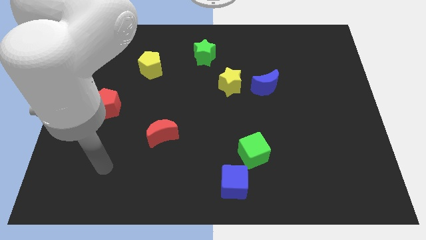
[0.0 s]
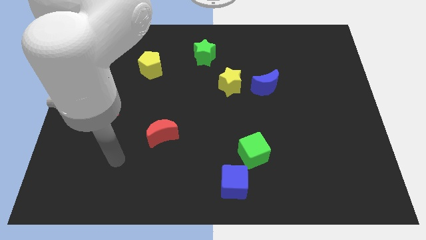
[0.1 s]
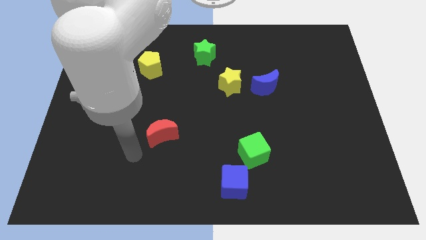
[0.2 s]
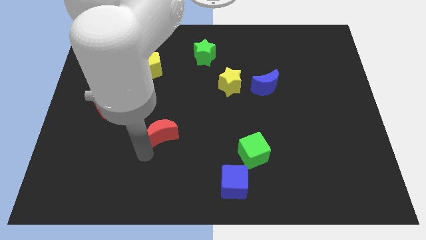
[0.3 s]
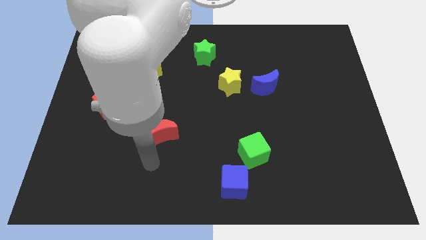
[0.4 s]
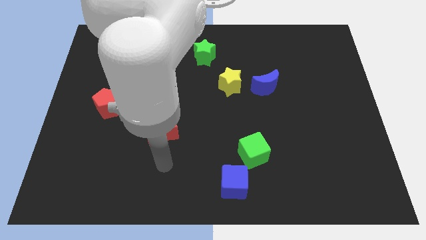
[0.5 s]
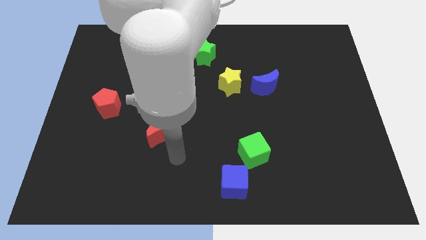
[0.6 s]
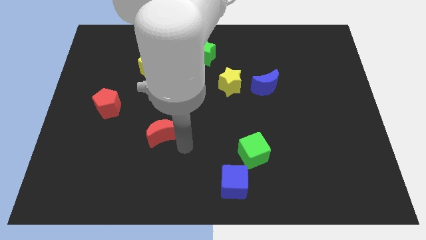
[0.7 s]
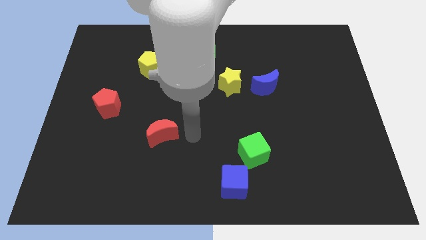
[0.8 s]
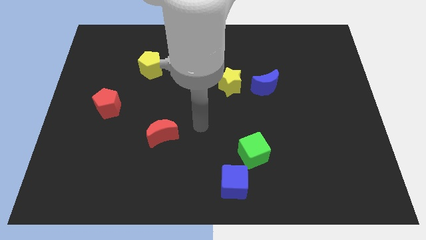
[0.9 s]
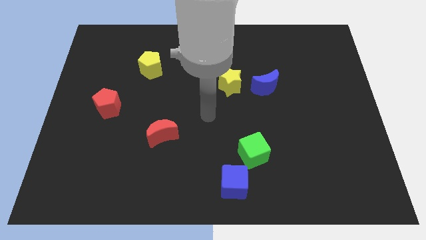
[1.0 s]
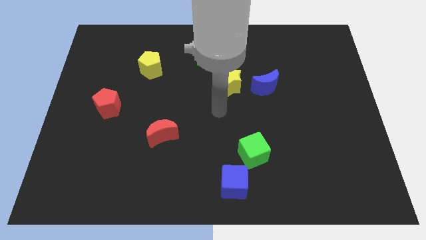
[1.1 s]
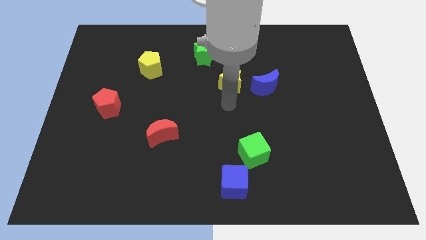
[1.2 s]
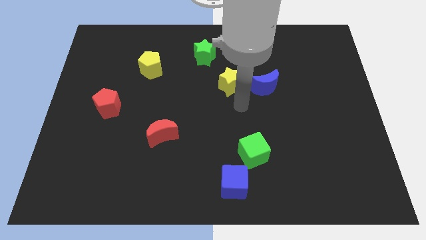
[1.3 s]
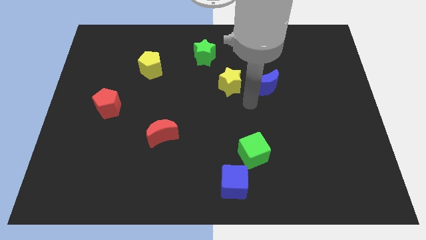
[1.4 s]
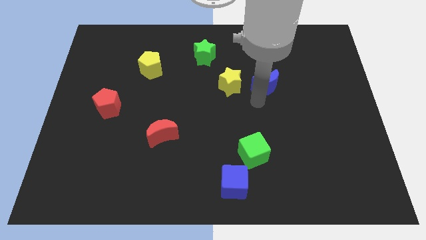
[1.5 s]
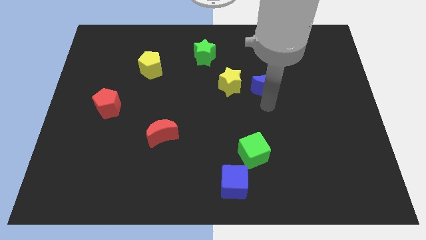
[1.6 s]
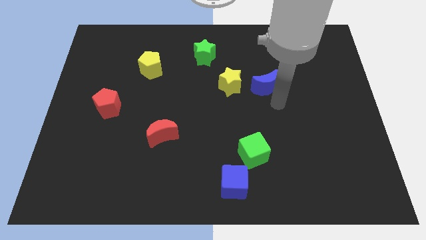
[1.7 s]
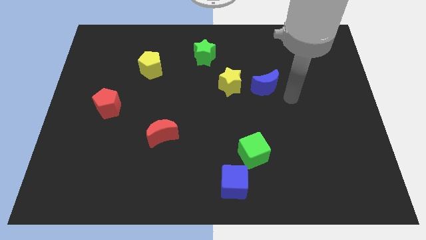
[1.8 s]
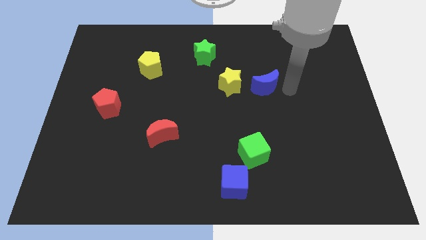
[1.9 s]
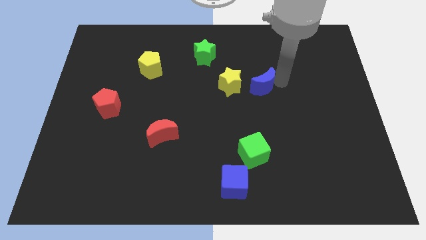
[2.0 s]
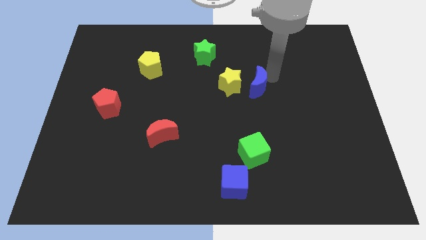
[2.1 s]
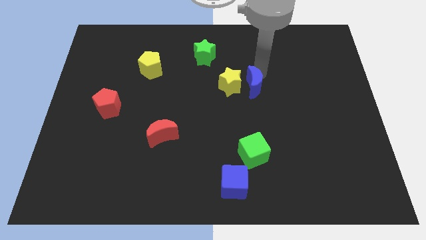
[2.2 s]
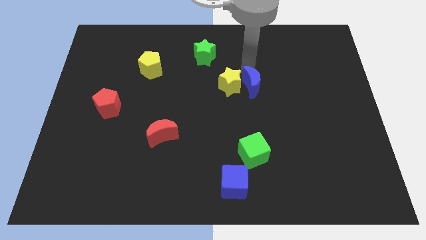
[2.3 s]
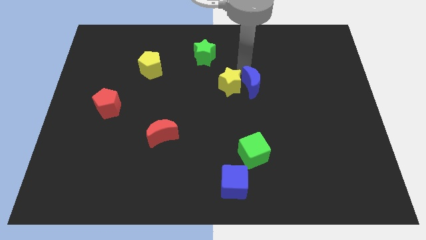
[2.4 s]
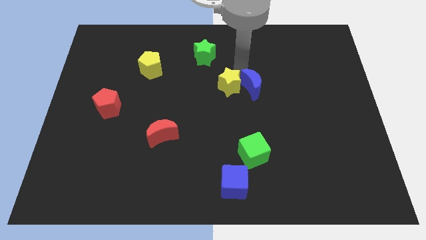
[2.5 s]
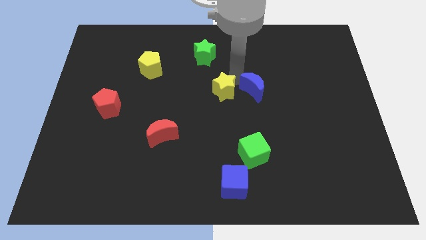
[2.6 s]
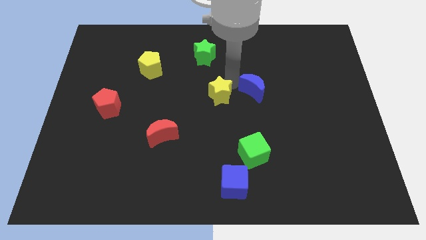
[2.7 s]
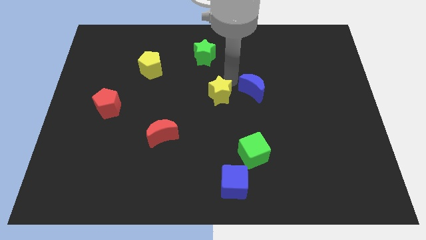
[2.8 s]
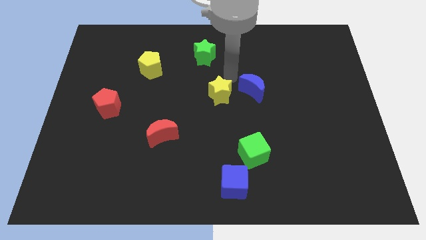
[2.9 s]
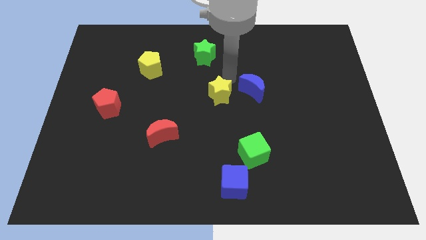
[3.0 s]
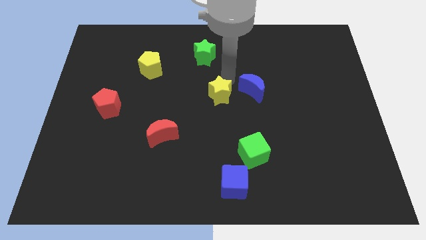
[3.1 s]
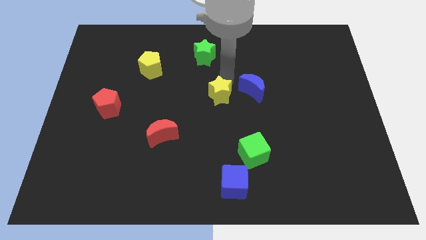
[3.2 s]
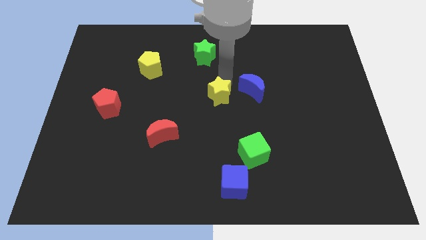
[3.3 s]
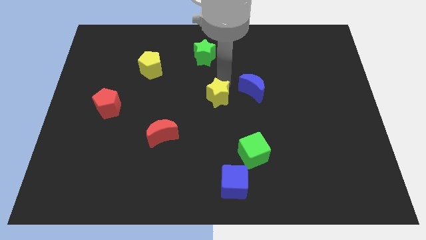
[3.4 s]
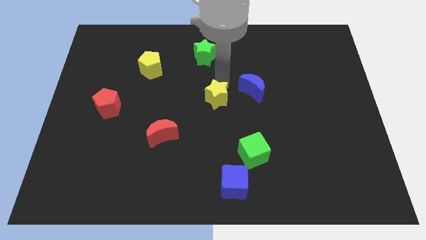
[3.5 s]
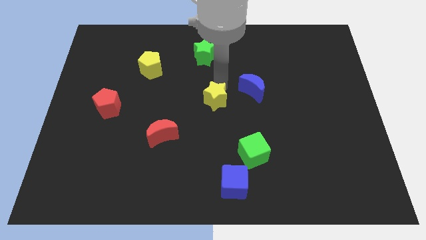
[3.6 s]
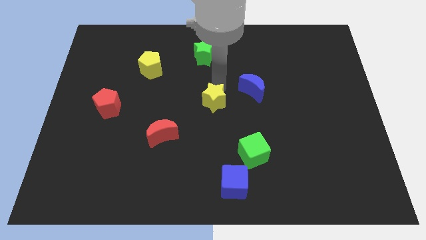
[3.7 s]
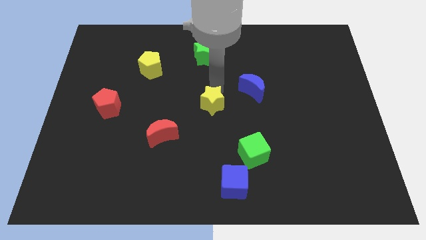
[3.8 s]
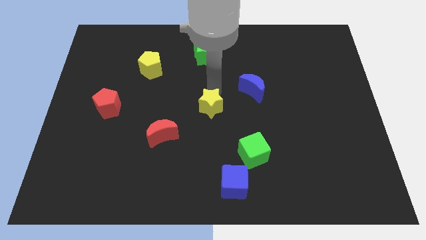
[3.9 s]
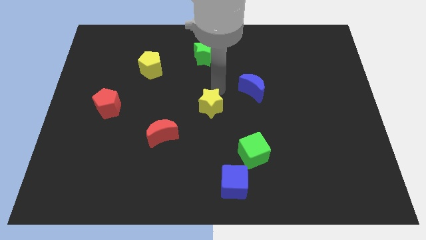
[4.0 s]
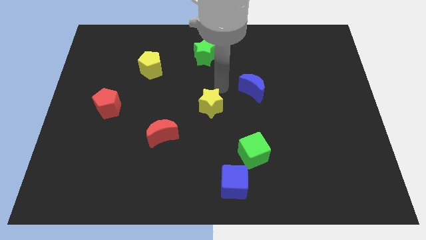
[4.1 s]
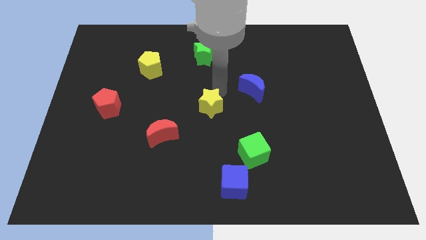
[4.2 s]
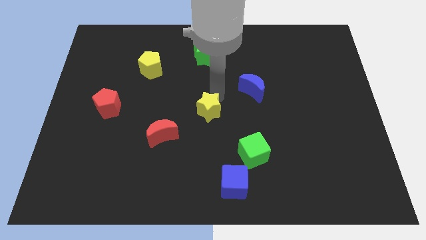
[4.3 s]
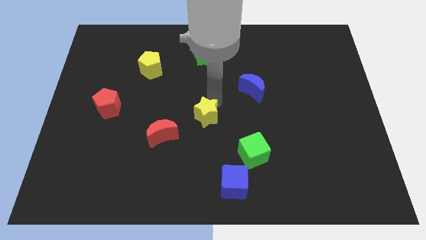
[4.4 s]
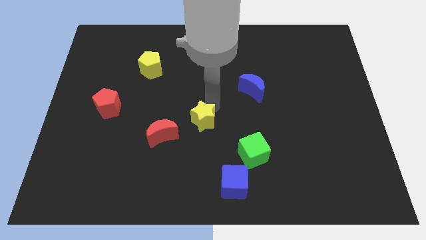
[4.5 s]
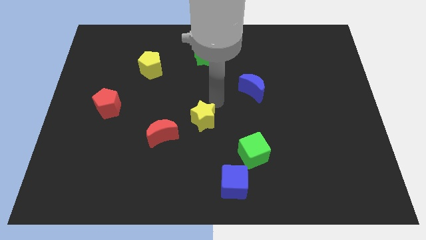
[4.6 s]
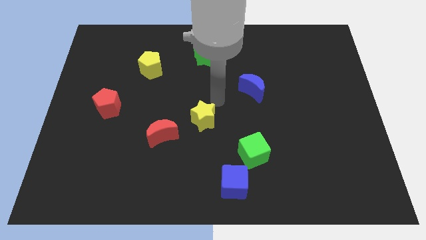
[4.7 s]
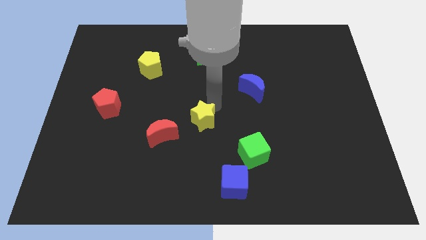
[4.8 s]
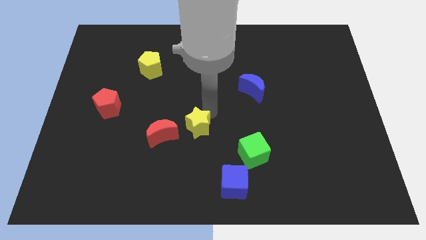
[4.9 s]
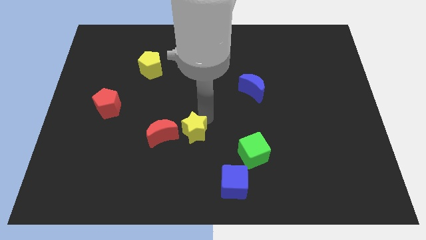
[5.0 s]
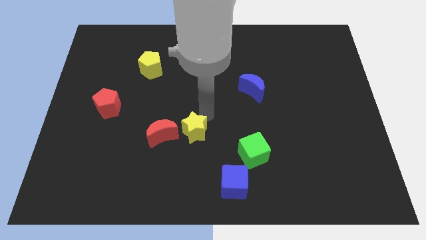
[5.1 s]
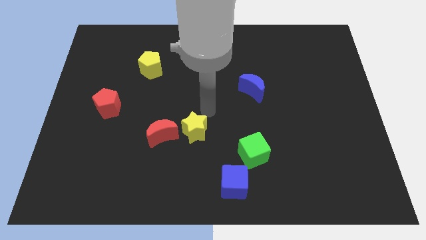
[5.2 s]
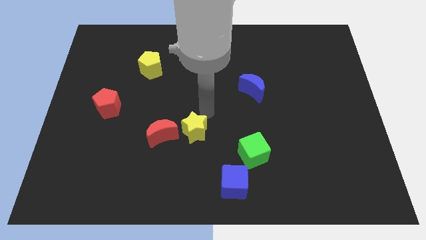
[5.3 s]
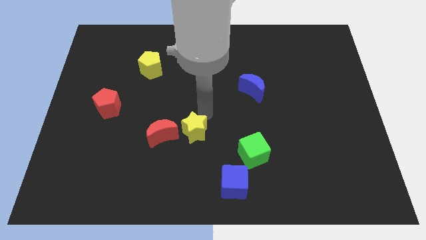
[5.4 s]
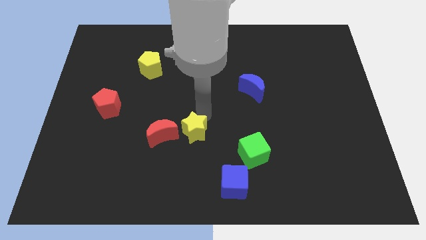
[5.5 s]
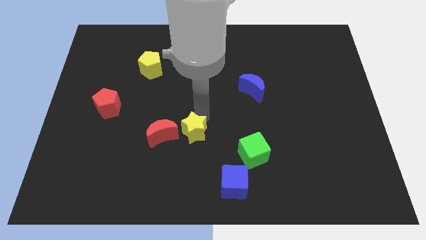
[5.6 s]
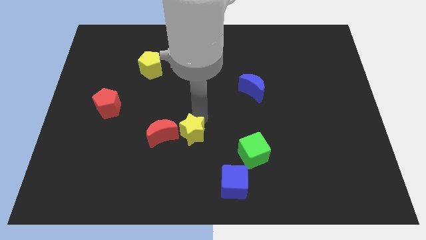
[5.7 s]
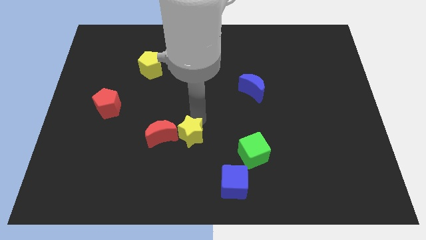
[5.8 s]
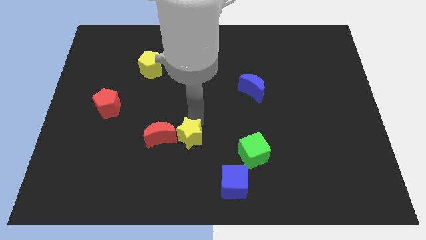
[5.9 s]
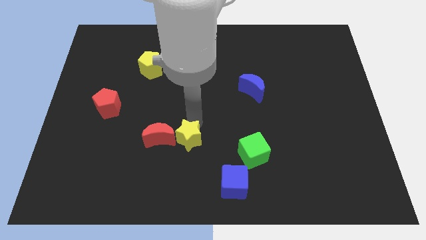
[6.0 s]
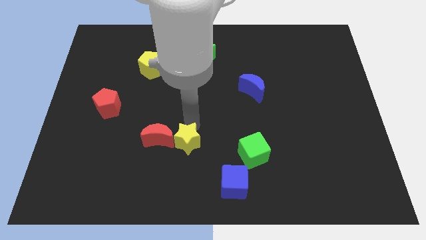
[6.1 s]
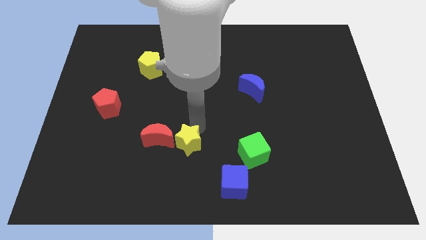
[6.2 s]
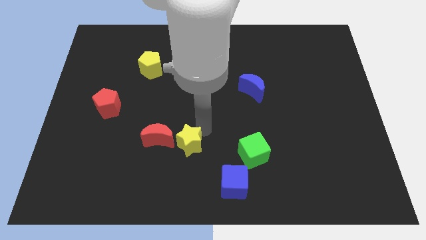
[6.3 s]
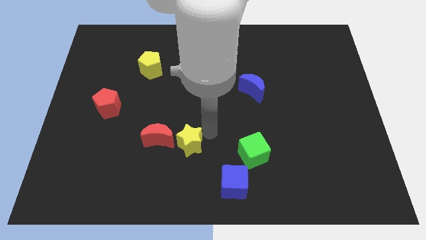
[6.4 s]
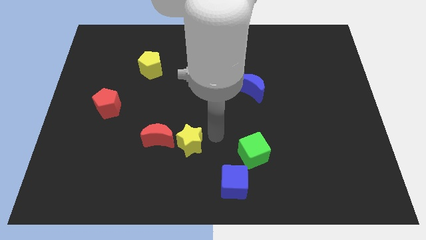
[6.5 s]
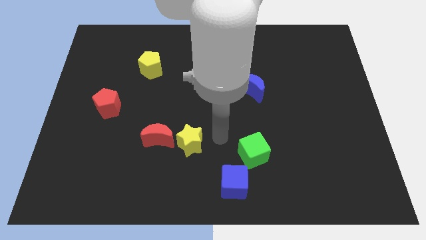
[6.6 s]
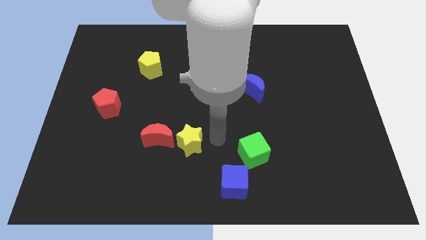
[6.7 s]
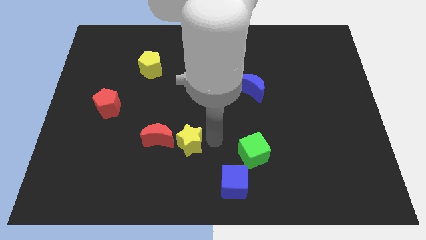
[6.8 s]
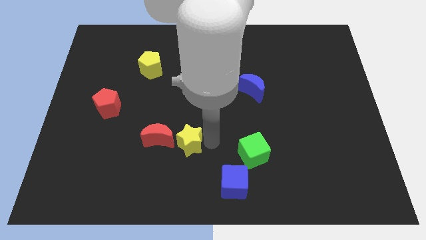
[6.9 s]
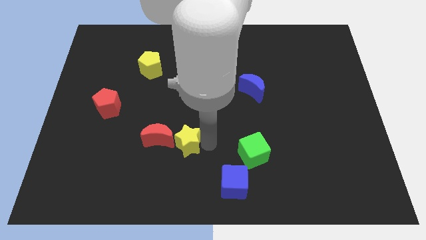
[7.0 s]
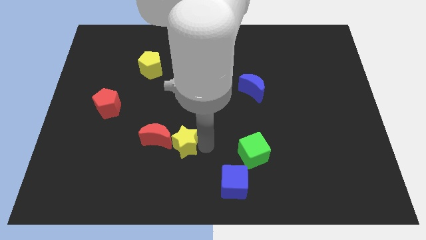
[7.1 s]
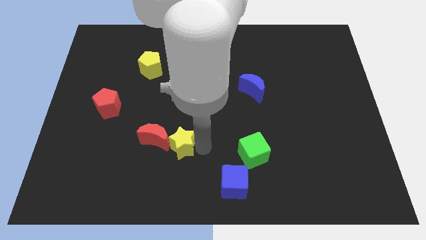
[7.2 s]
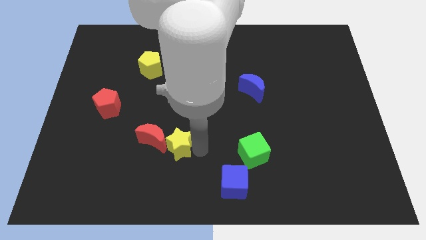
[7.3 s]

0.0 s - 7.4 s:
slide the yellow star diagonally down and to the left

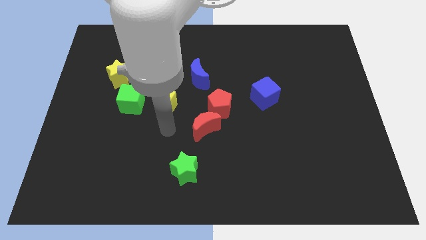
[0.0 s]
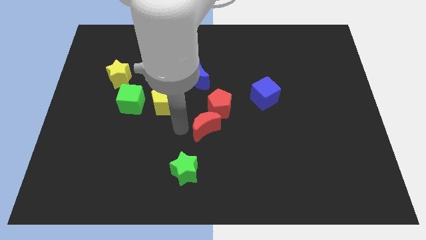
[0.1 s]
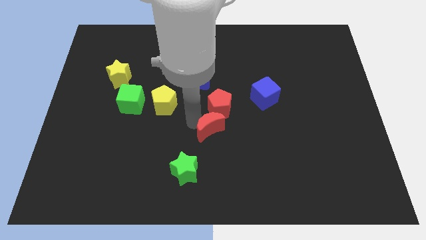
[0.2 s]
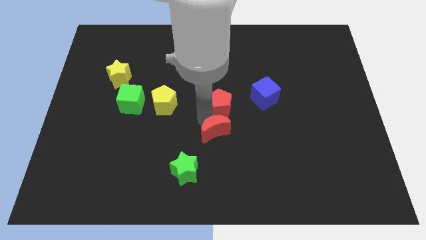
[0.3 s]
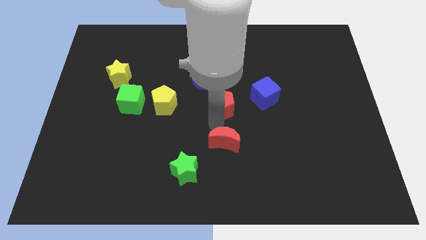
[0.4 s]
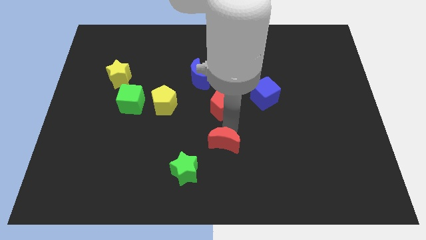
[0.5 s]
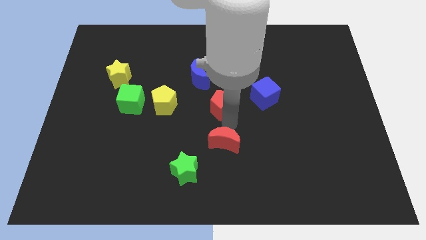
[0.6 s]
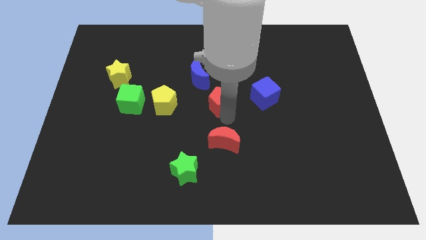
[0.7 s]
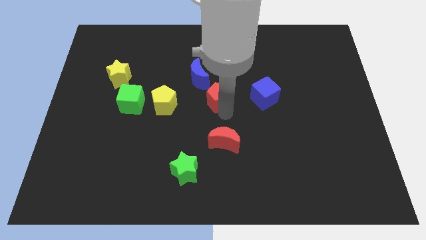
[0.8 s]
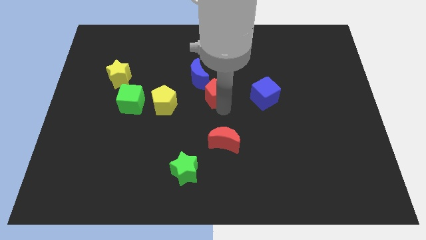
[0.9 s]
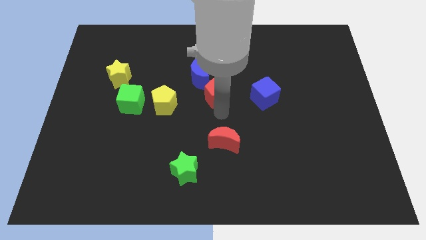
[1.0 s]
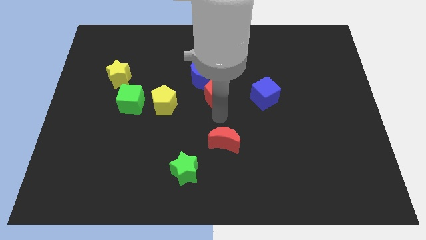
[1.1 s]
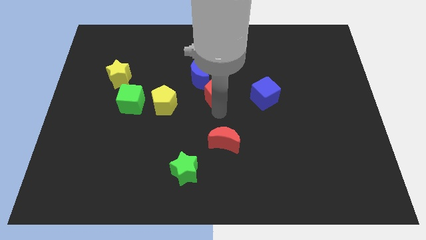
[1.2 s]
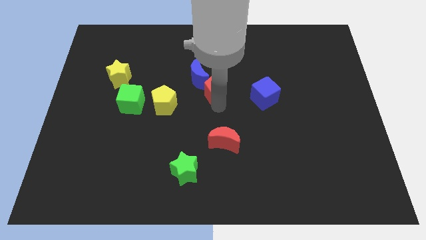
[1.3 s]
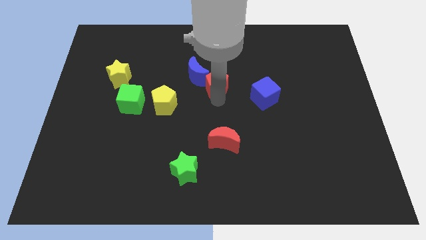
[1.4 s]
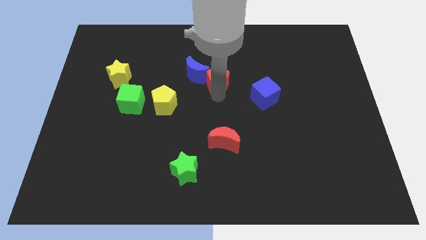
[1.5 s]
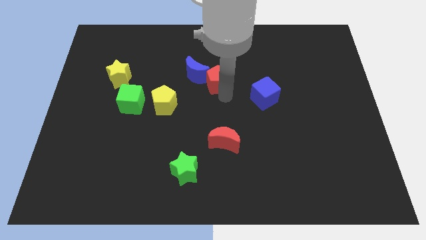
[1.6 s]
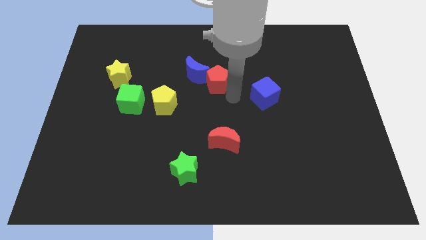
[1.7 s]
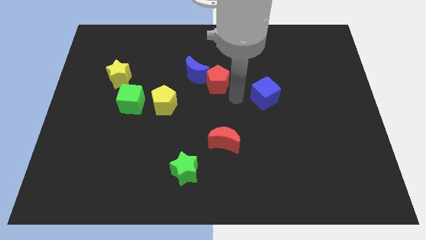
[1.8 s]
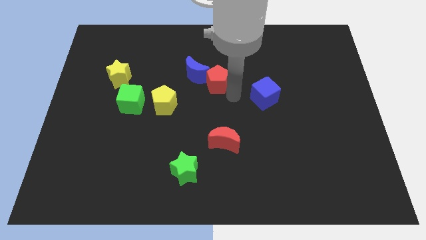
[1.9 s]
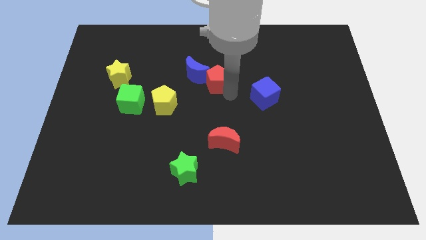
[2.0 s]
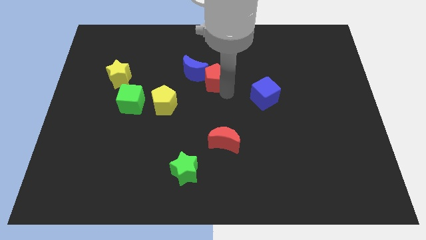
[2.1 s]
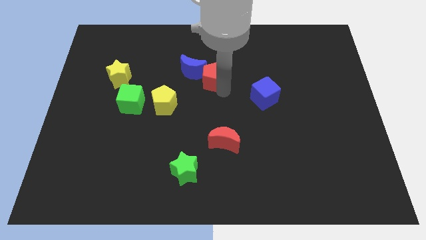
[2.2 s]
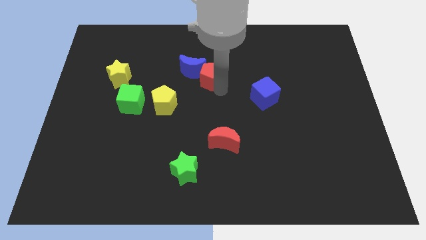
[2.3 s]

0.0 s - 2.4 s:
slightly push the red pentagon diagonally upwards and left
